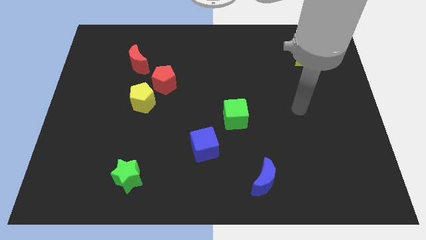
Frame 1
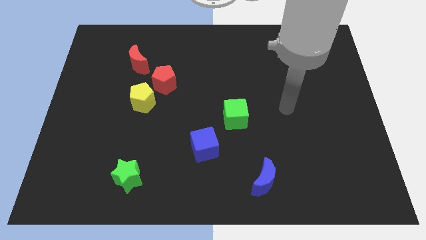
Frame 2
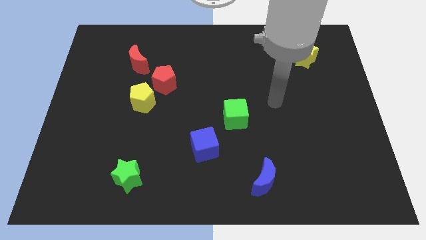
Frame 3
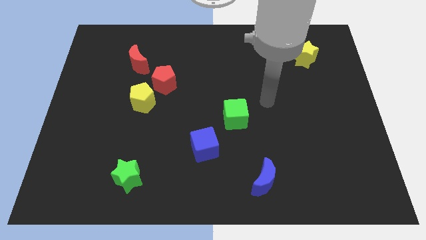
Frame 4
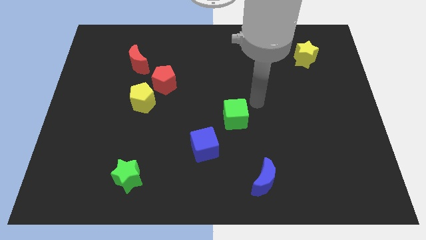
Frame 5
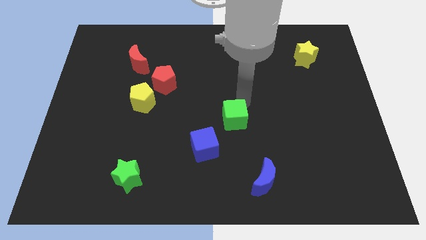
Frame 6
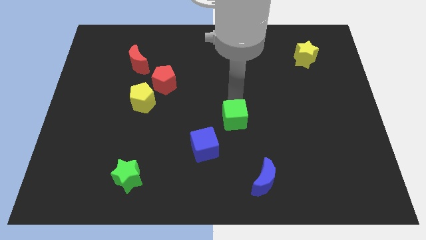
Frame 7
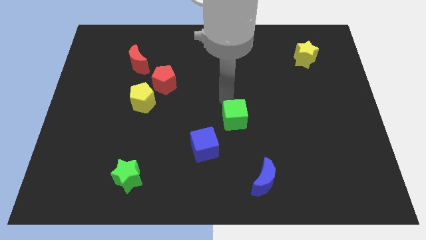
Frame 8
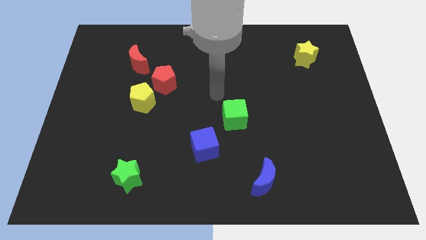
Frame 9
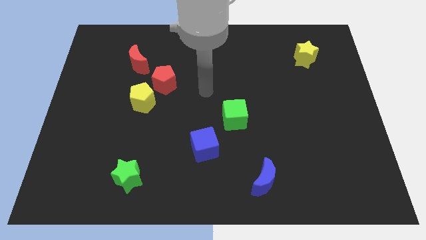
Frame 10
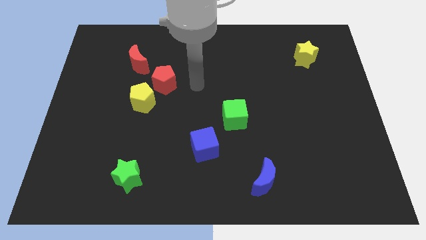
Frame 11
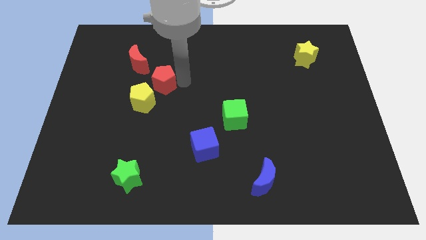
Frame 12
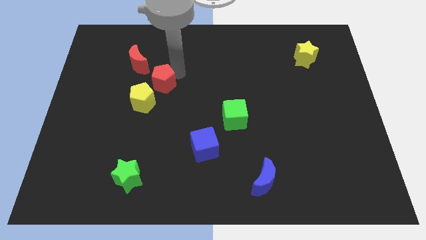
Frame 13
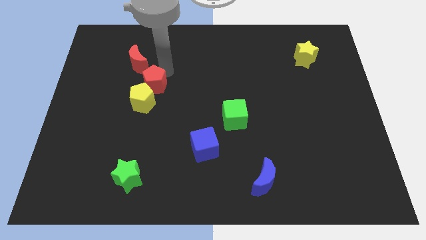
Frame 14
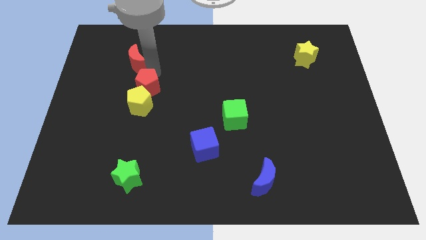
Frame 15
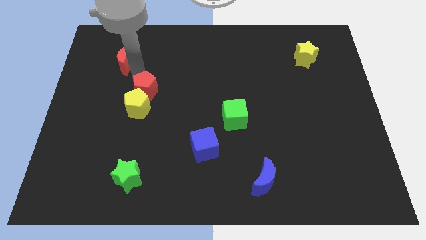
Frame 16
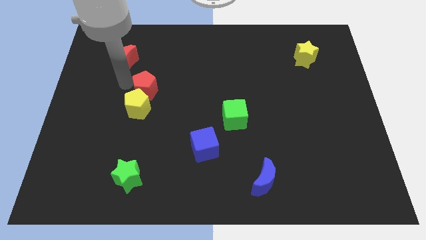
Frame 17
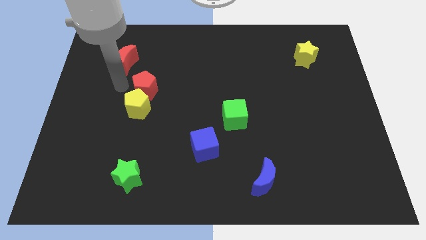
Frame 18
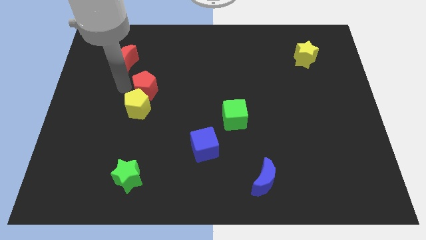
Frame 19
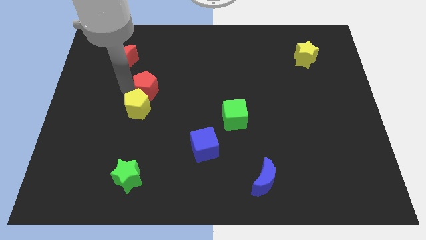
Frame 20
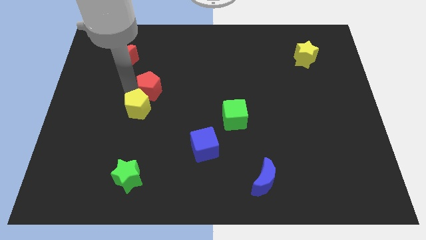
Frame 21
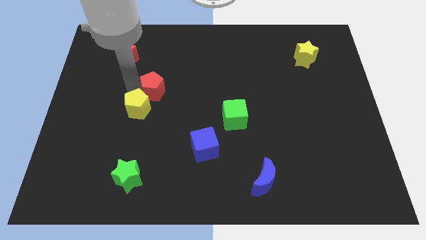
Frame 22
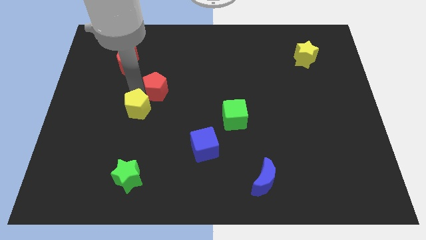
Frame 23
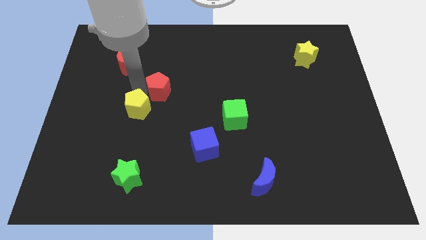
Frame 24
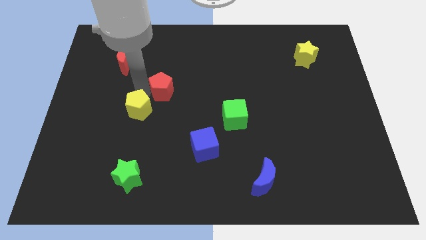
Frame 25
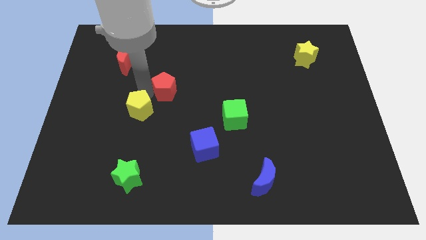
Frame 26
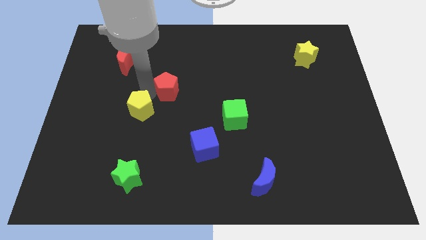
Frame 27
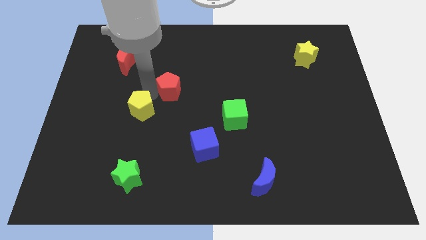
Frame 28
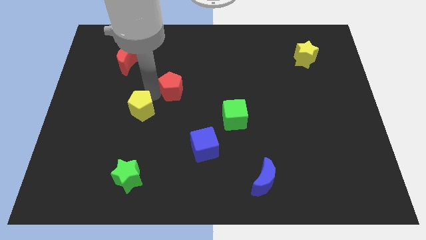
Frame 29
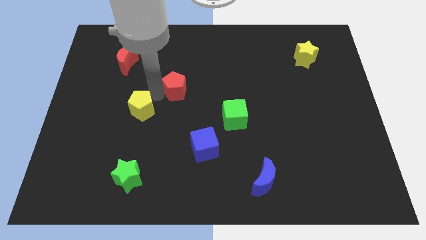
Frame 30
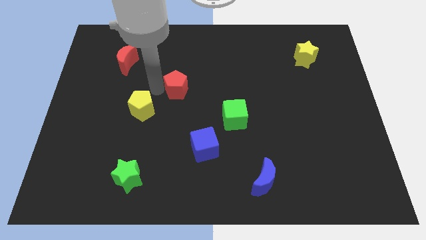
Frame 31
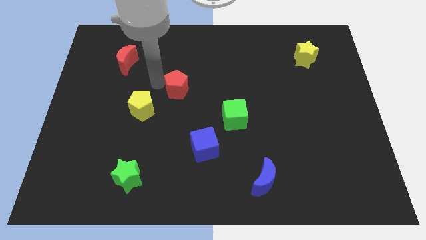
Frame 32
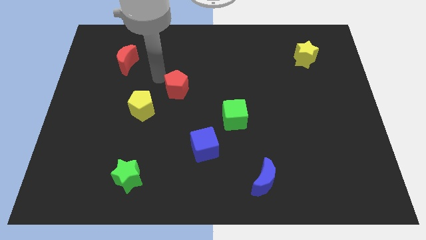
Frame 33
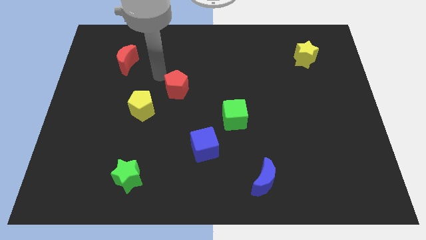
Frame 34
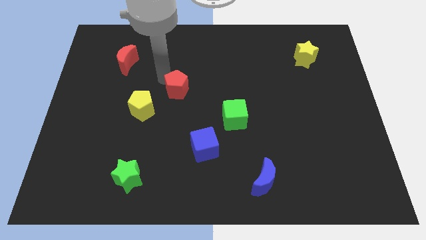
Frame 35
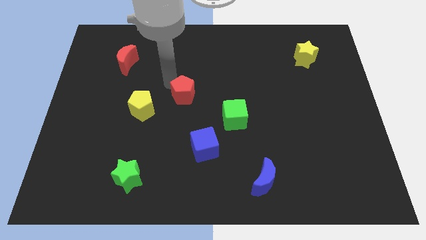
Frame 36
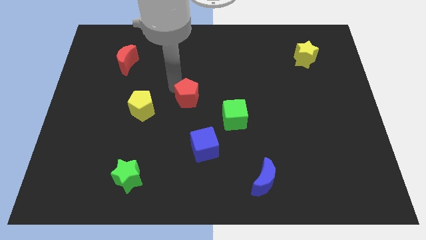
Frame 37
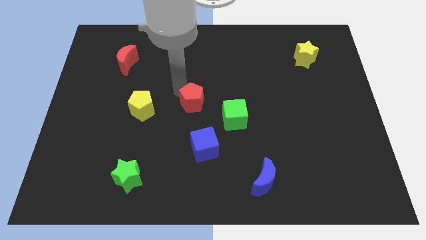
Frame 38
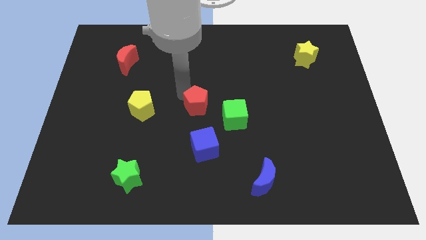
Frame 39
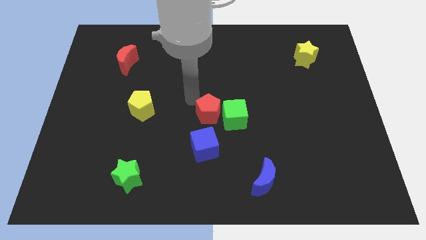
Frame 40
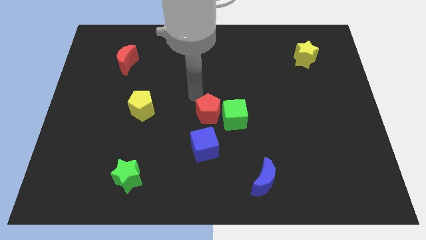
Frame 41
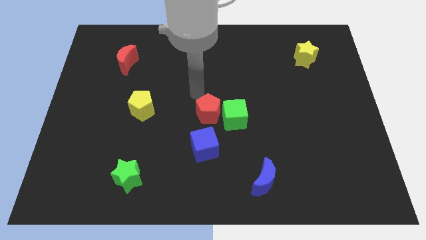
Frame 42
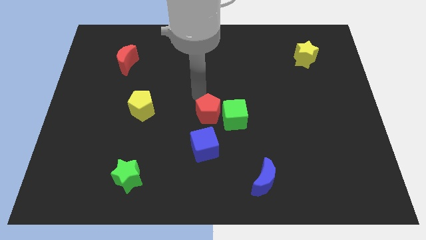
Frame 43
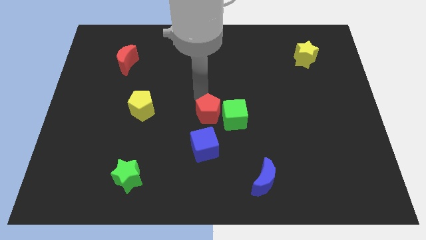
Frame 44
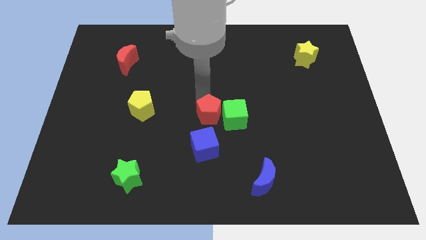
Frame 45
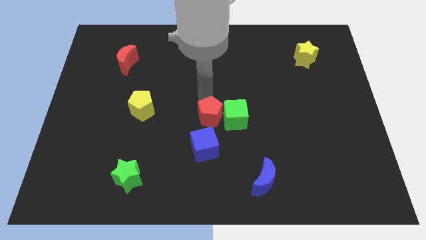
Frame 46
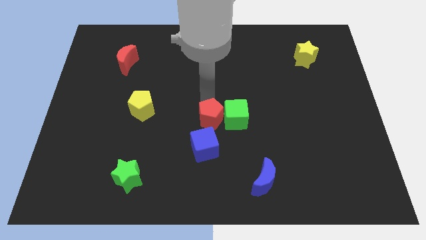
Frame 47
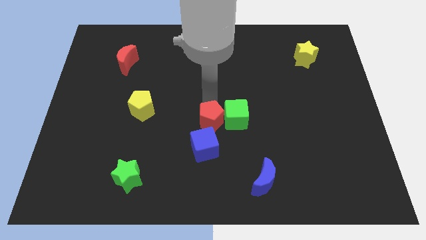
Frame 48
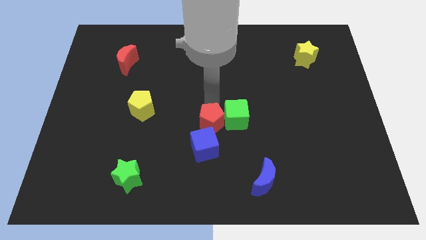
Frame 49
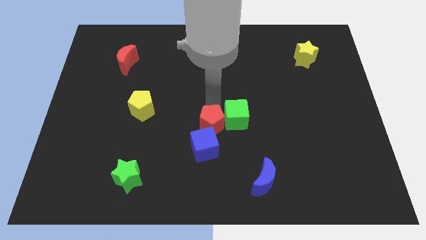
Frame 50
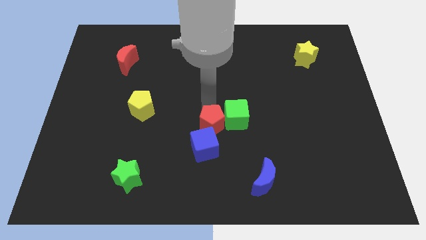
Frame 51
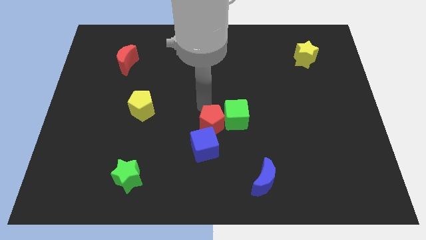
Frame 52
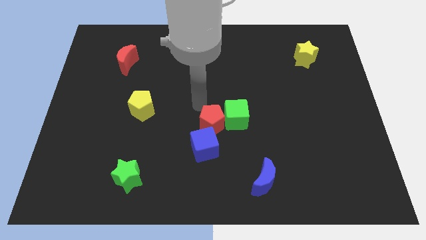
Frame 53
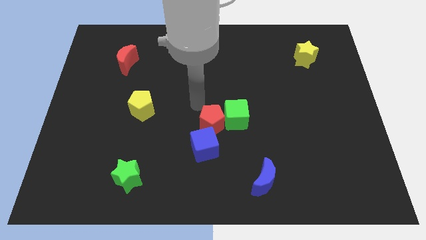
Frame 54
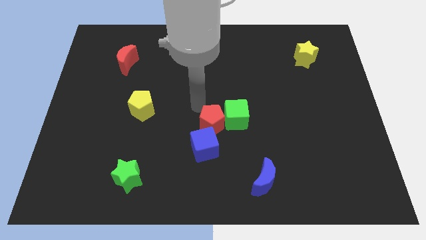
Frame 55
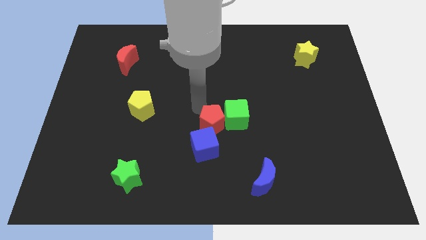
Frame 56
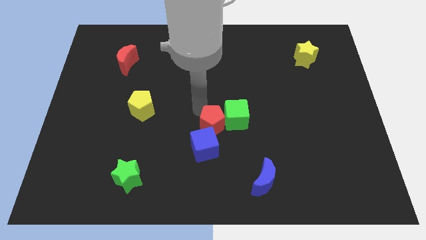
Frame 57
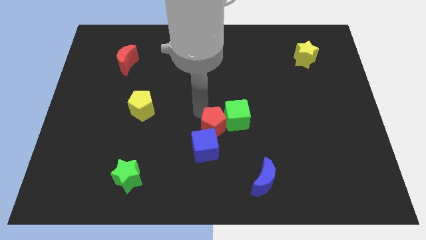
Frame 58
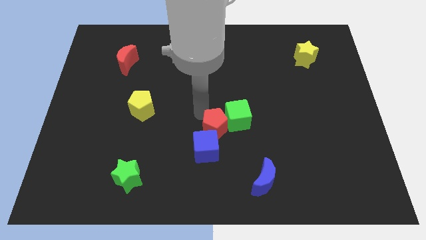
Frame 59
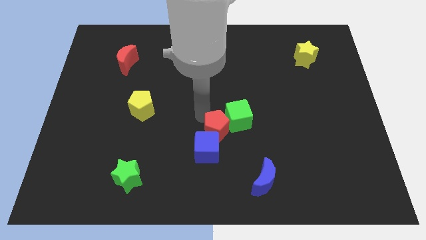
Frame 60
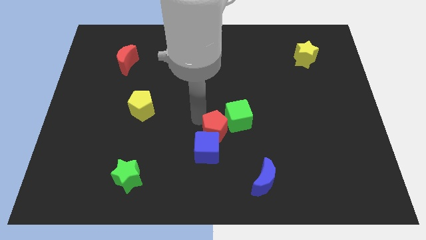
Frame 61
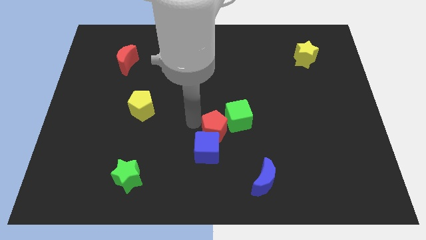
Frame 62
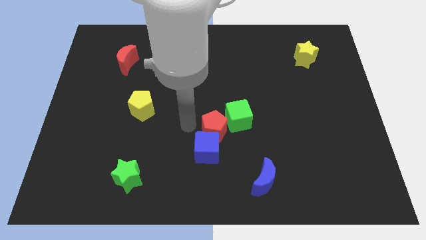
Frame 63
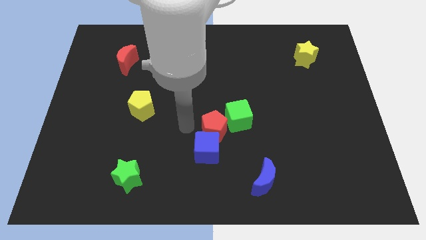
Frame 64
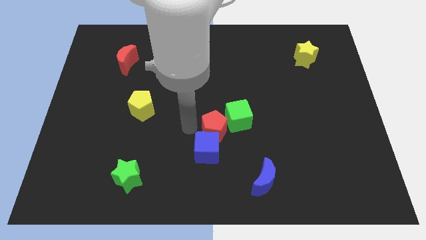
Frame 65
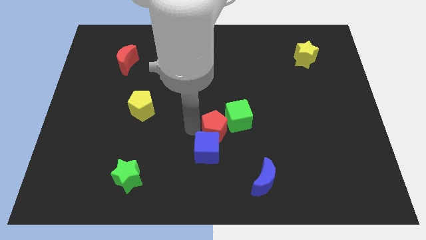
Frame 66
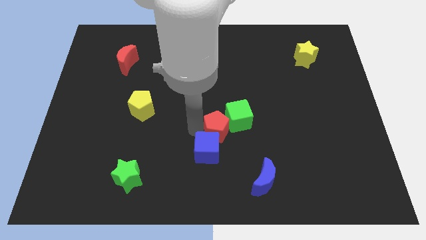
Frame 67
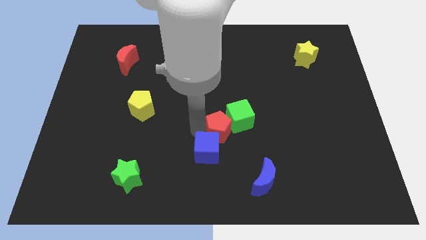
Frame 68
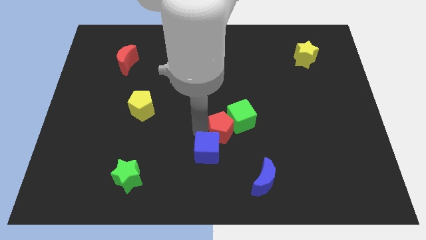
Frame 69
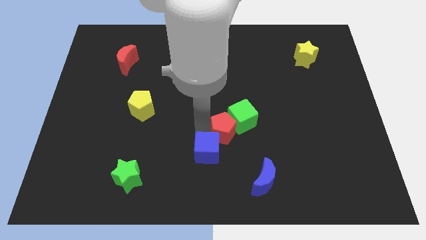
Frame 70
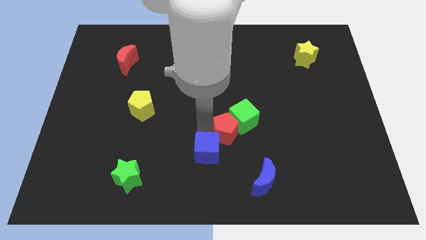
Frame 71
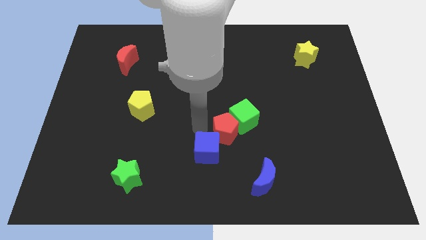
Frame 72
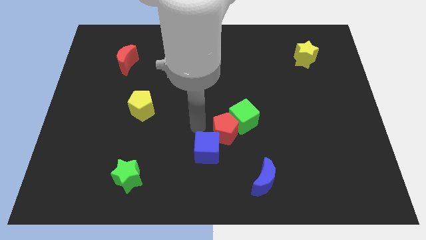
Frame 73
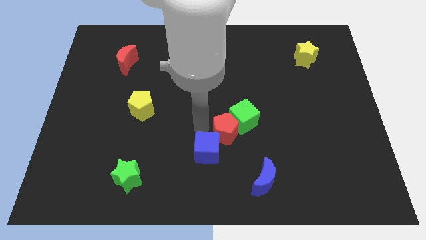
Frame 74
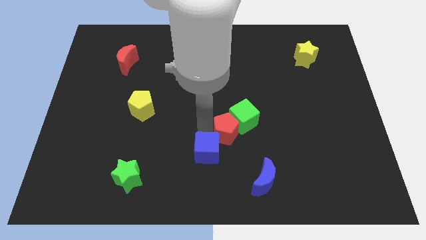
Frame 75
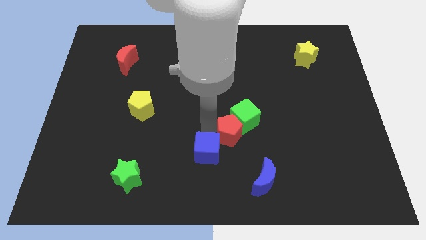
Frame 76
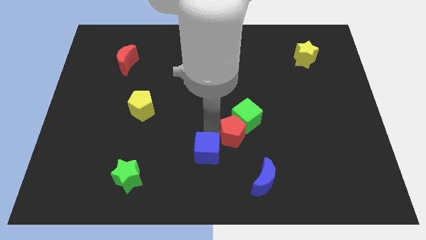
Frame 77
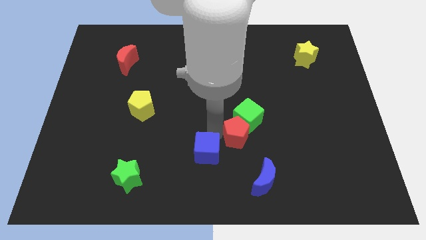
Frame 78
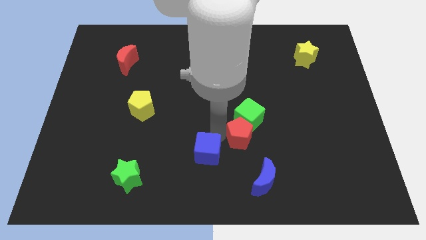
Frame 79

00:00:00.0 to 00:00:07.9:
push the red pentagon above the blue moon
